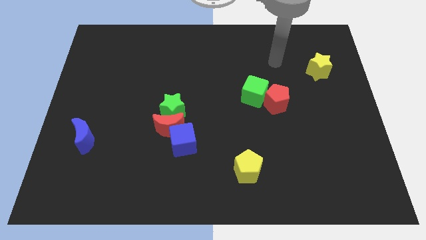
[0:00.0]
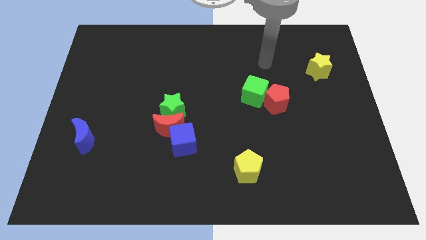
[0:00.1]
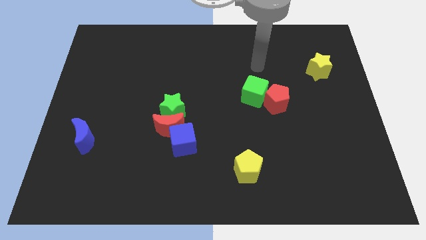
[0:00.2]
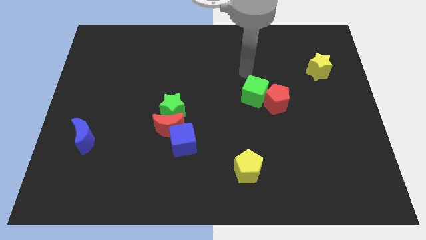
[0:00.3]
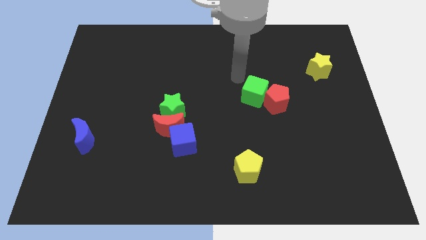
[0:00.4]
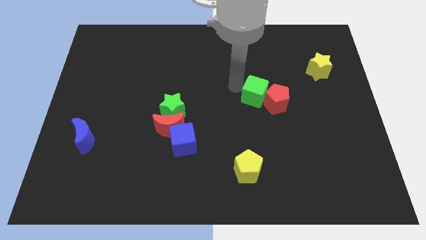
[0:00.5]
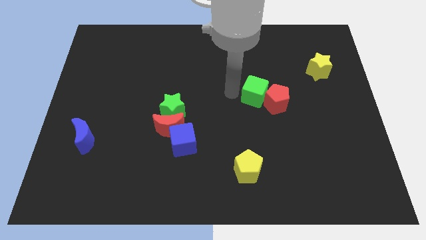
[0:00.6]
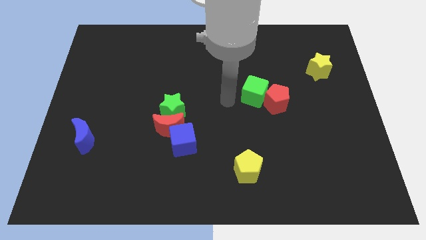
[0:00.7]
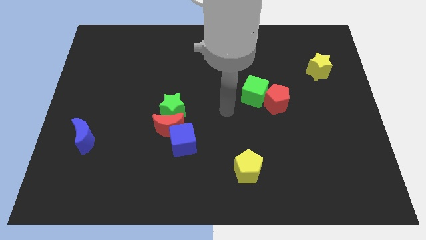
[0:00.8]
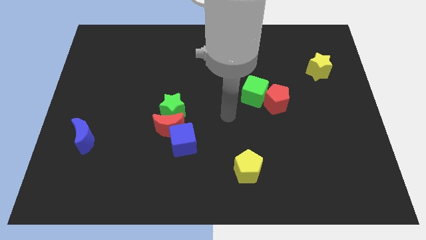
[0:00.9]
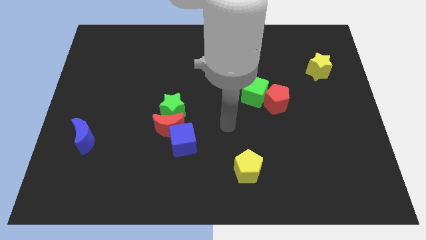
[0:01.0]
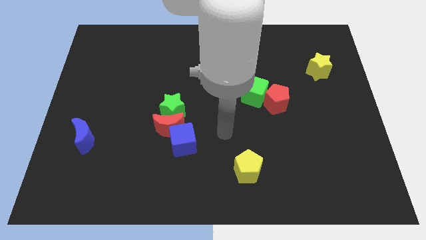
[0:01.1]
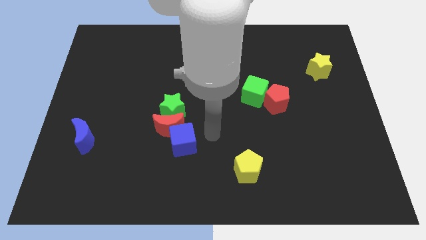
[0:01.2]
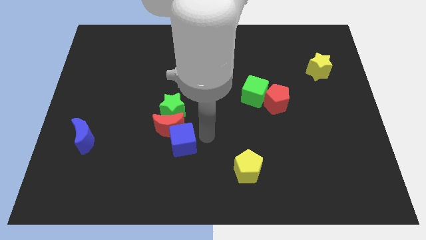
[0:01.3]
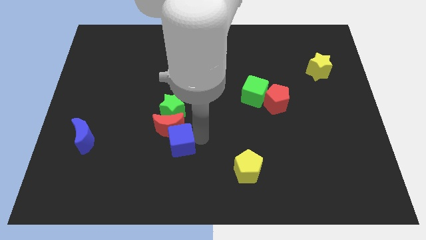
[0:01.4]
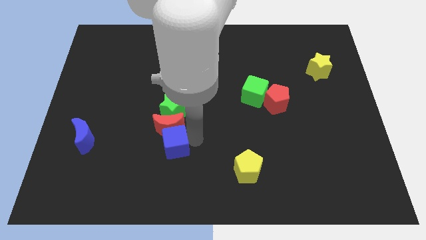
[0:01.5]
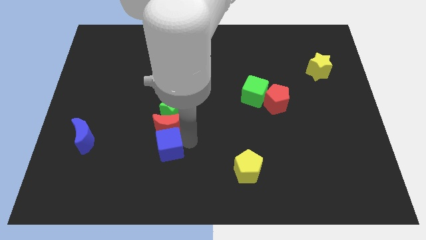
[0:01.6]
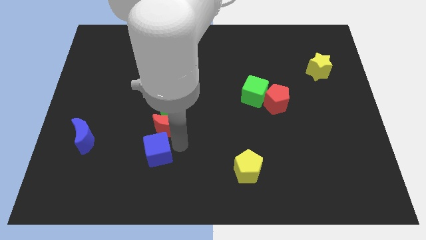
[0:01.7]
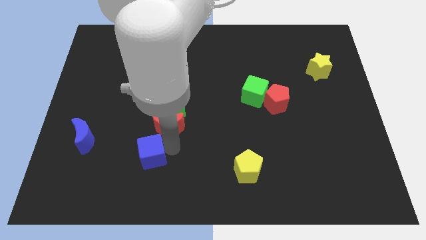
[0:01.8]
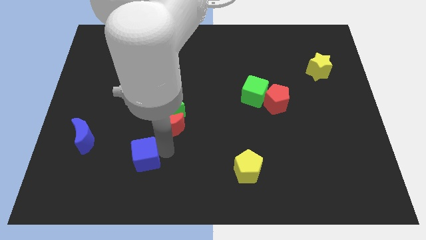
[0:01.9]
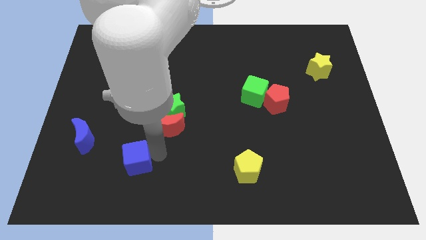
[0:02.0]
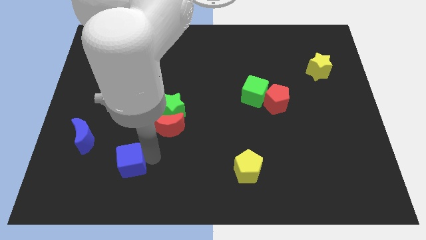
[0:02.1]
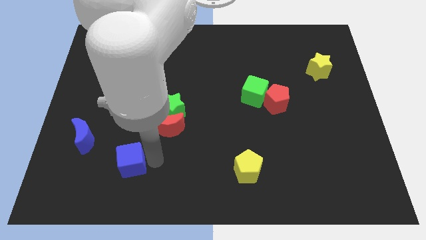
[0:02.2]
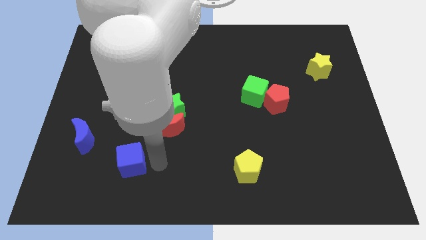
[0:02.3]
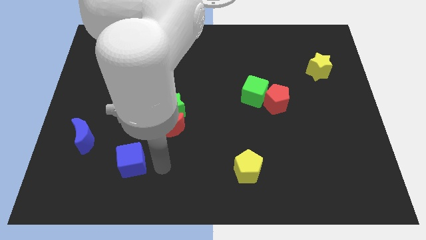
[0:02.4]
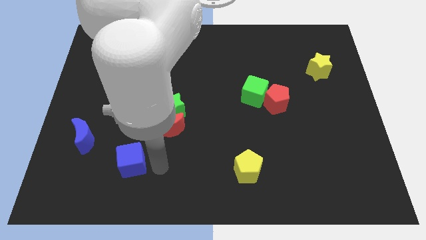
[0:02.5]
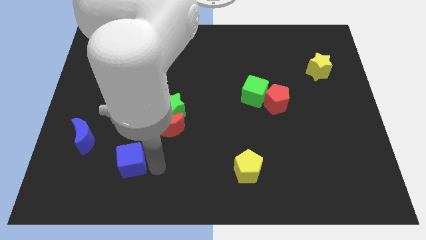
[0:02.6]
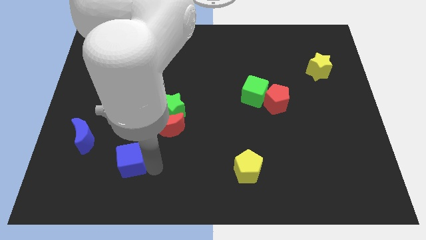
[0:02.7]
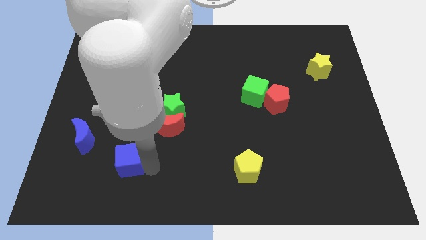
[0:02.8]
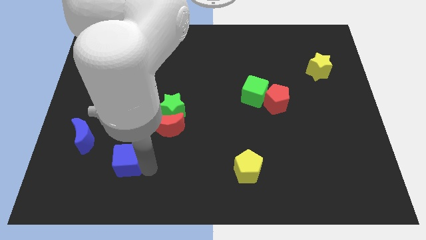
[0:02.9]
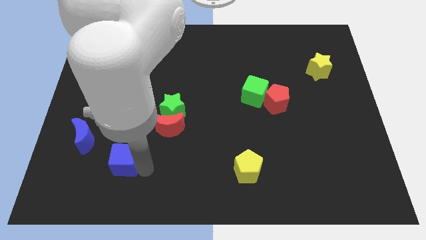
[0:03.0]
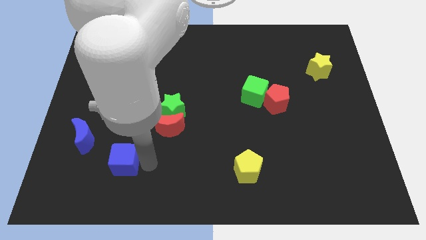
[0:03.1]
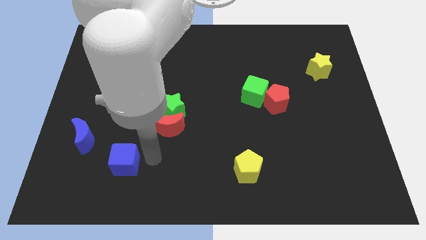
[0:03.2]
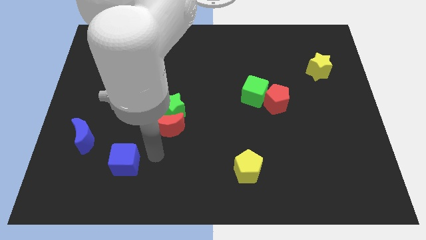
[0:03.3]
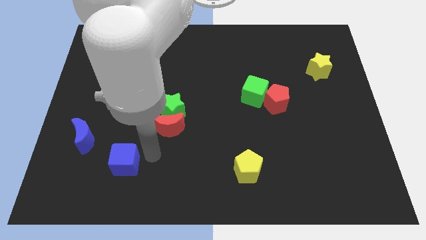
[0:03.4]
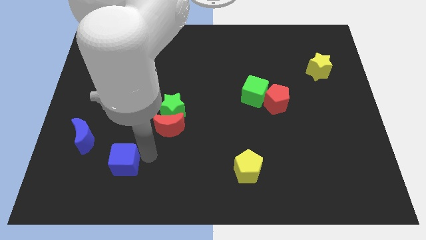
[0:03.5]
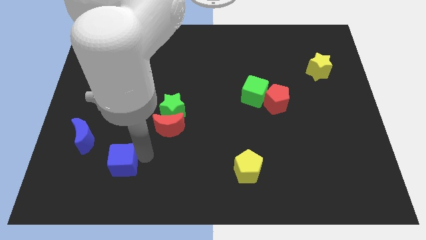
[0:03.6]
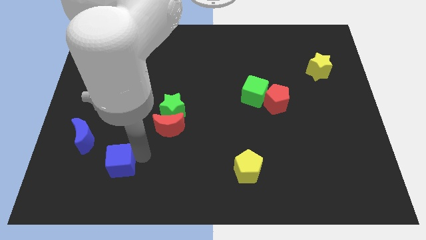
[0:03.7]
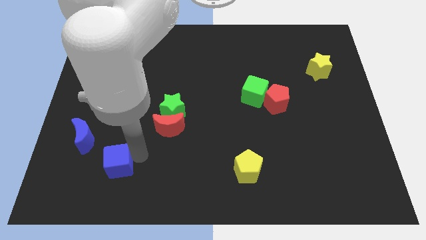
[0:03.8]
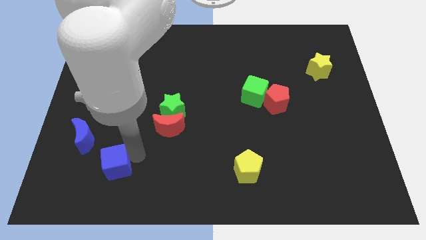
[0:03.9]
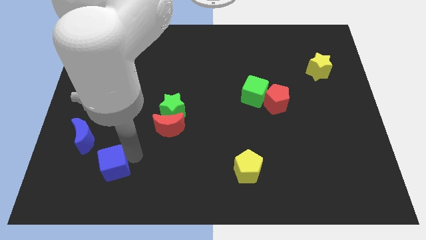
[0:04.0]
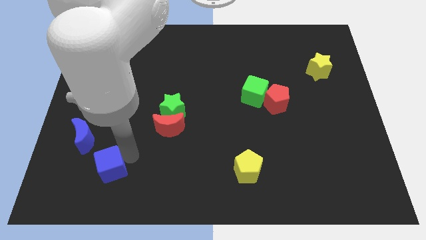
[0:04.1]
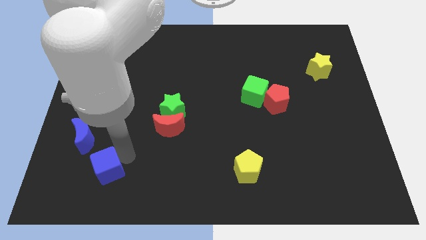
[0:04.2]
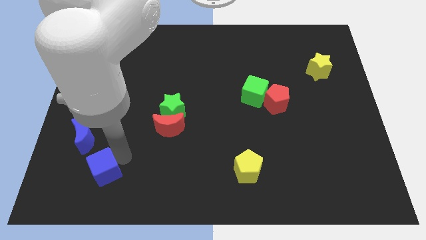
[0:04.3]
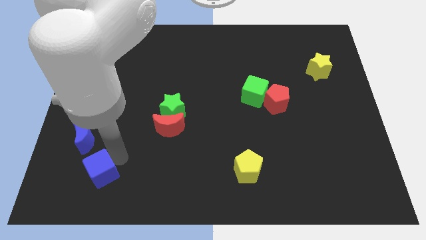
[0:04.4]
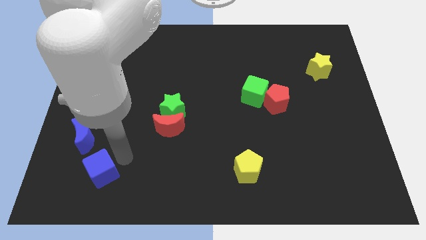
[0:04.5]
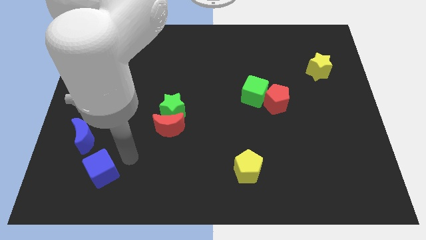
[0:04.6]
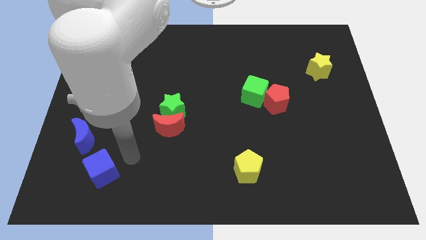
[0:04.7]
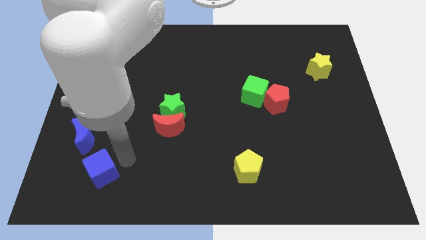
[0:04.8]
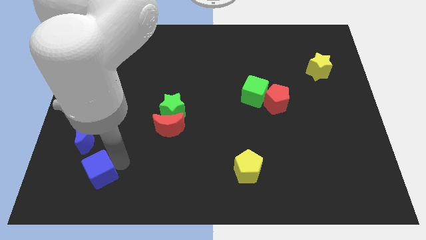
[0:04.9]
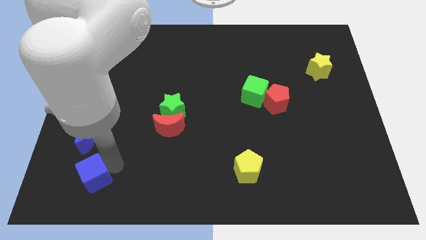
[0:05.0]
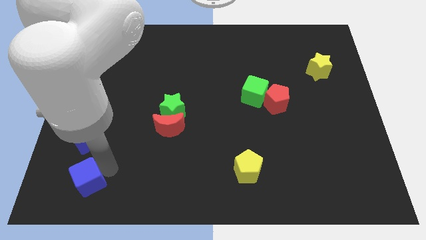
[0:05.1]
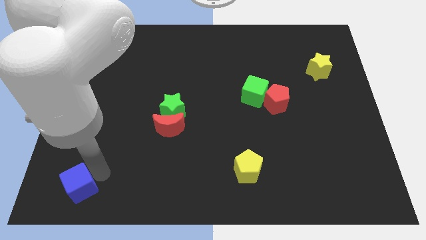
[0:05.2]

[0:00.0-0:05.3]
put the blue cube to the lower left corner

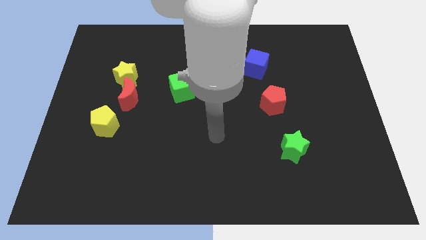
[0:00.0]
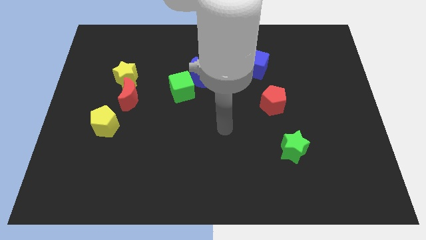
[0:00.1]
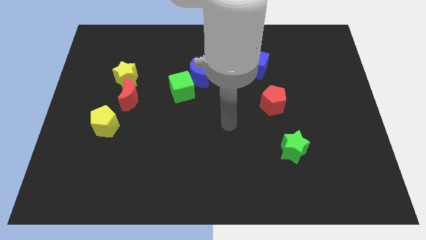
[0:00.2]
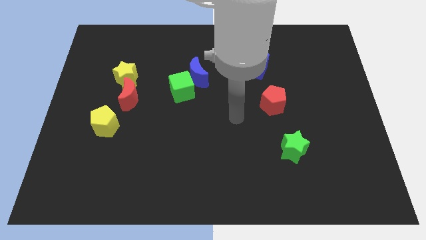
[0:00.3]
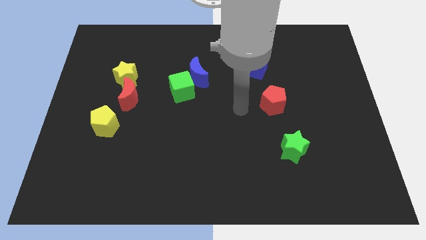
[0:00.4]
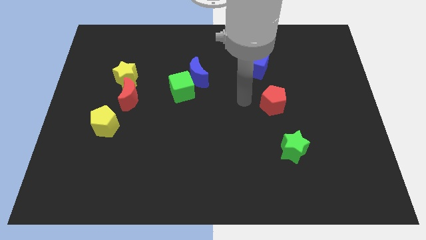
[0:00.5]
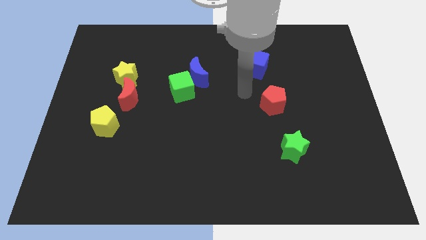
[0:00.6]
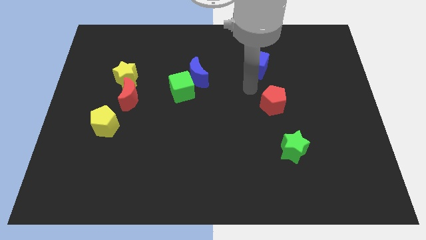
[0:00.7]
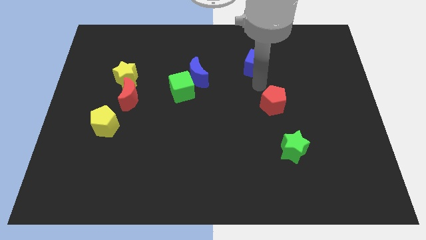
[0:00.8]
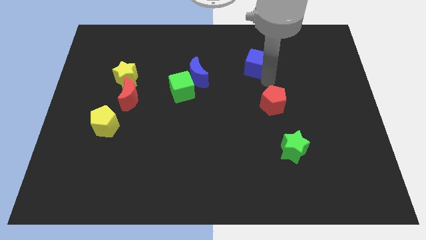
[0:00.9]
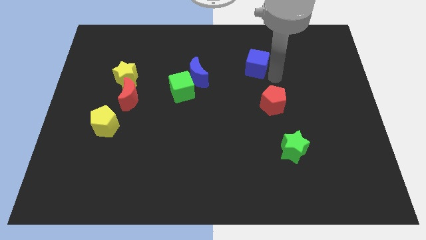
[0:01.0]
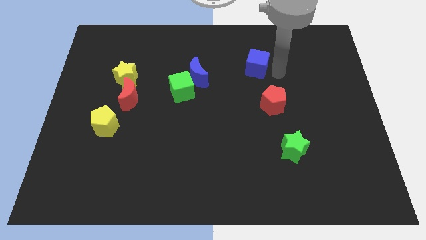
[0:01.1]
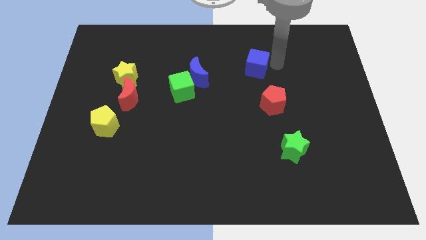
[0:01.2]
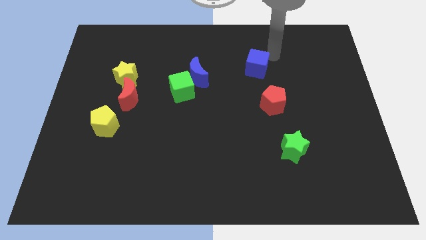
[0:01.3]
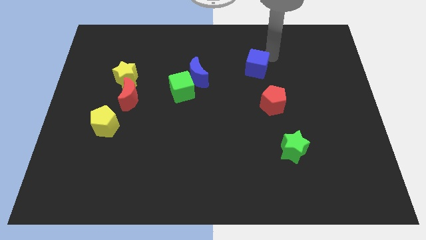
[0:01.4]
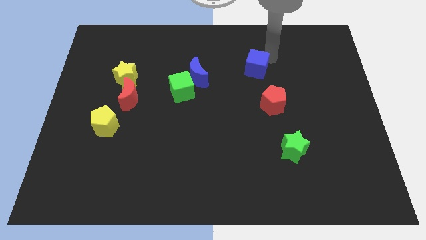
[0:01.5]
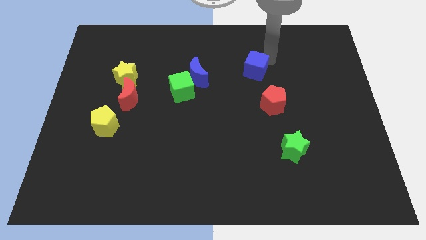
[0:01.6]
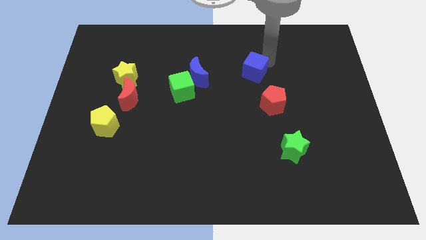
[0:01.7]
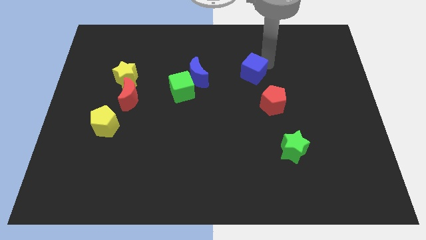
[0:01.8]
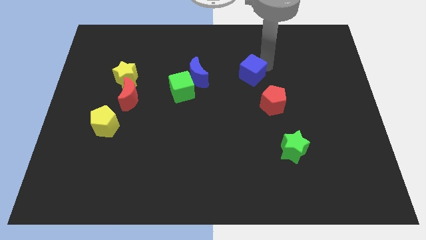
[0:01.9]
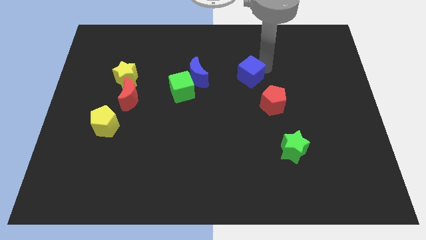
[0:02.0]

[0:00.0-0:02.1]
push the blue cube to the middle of the board
